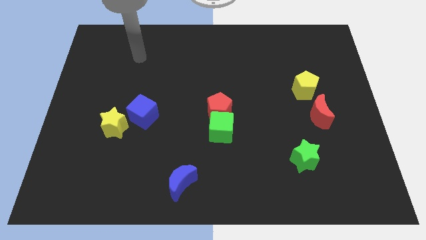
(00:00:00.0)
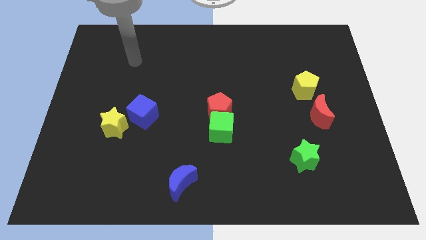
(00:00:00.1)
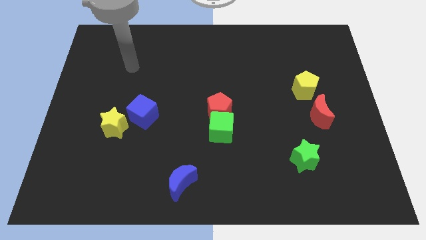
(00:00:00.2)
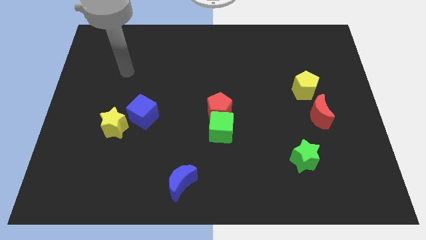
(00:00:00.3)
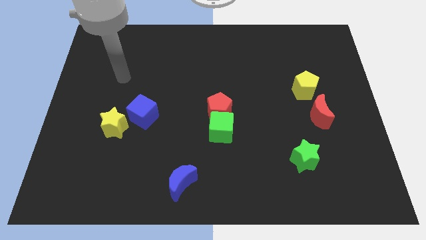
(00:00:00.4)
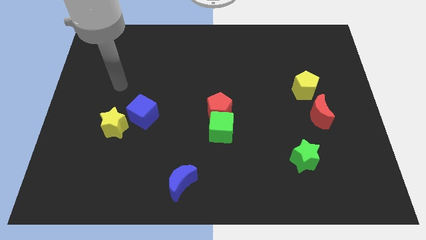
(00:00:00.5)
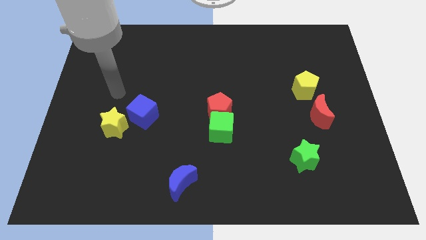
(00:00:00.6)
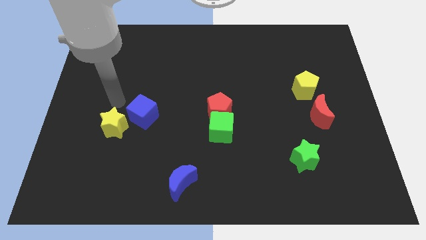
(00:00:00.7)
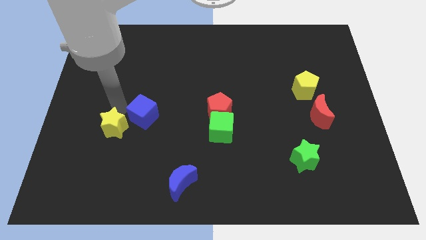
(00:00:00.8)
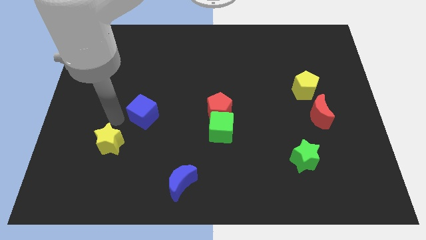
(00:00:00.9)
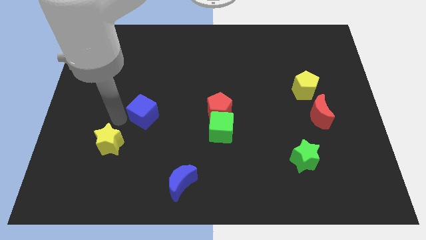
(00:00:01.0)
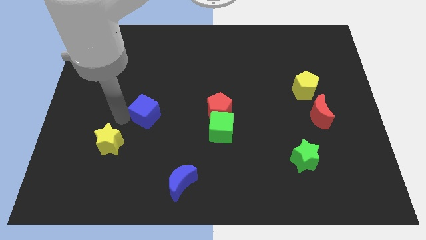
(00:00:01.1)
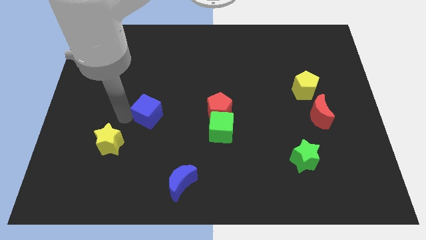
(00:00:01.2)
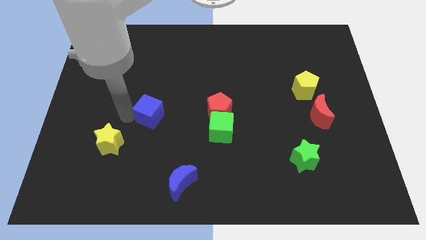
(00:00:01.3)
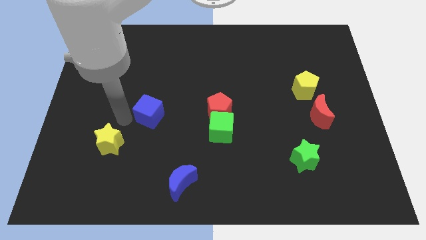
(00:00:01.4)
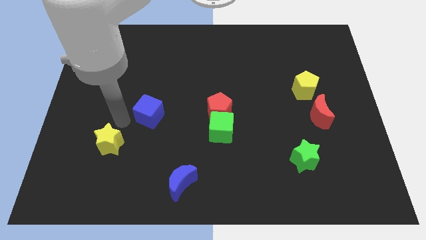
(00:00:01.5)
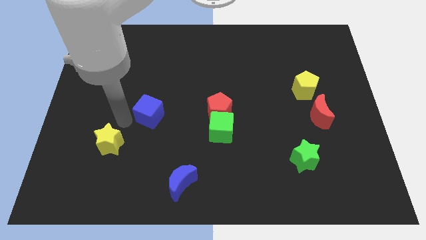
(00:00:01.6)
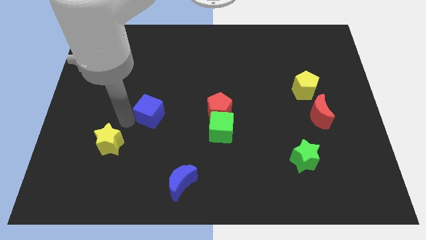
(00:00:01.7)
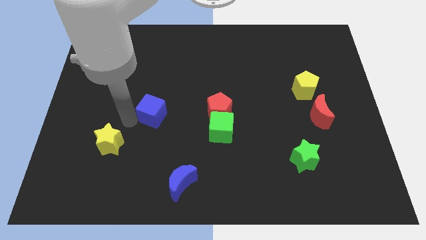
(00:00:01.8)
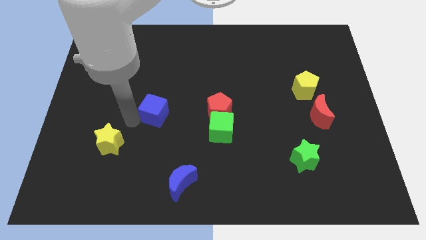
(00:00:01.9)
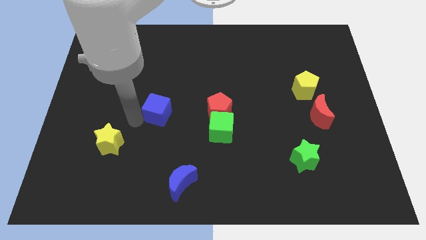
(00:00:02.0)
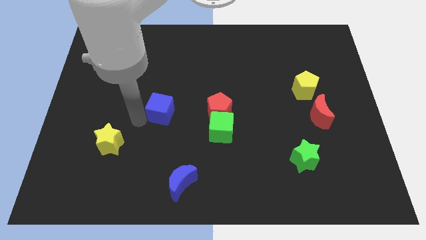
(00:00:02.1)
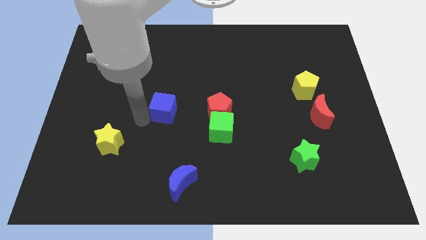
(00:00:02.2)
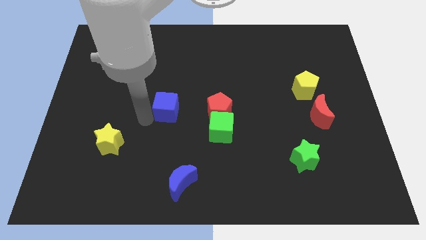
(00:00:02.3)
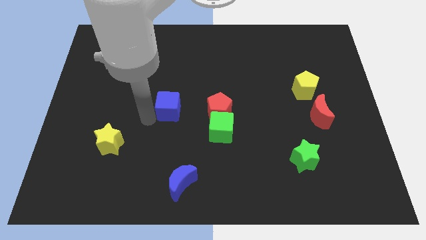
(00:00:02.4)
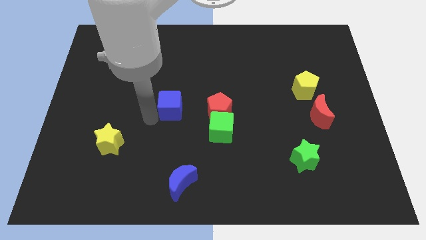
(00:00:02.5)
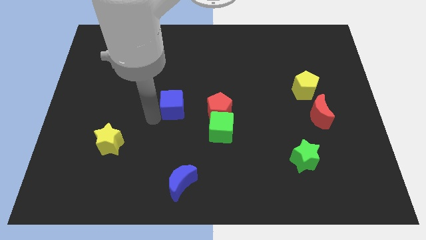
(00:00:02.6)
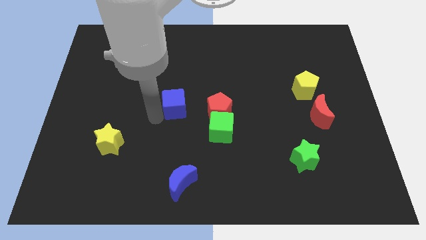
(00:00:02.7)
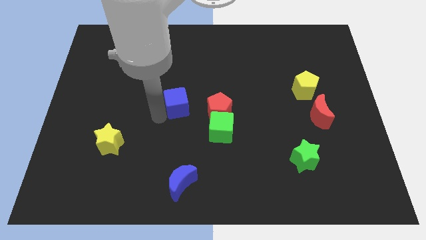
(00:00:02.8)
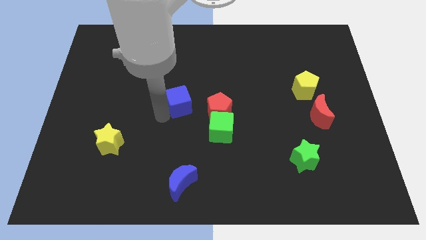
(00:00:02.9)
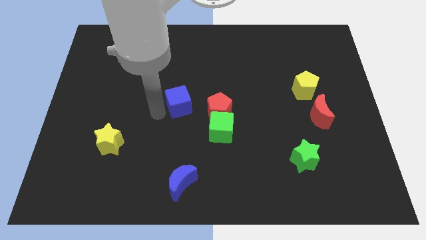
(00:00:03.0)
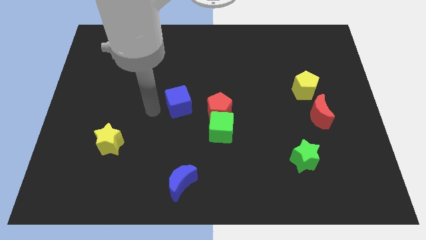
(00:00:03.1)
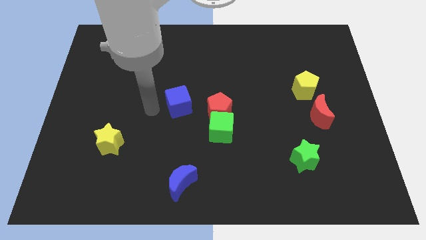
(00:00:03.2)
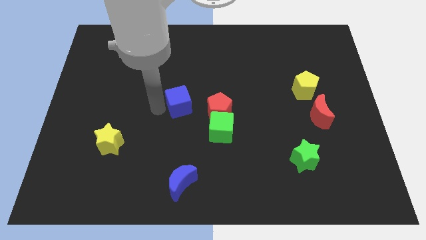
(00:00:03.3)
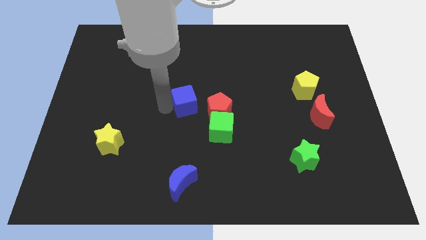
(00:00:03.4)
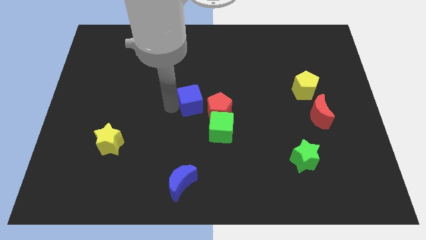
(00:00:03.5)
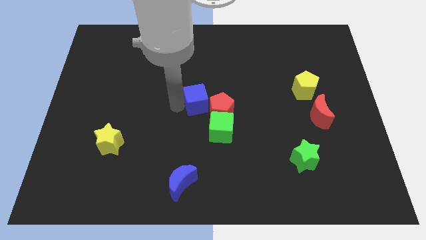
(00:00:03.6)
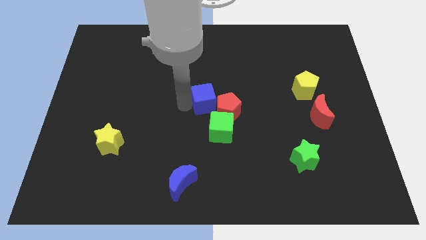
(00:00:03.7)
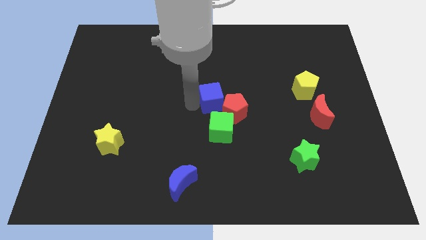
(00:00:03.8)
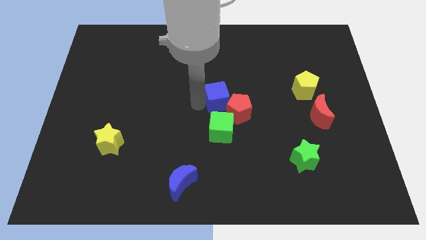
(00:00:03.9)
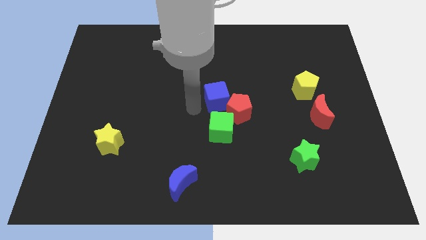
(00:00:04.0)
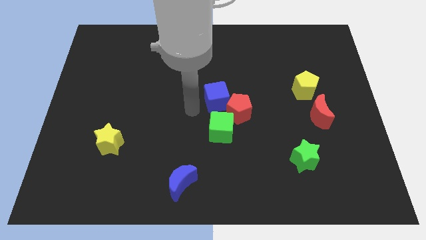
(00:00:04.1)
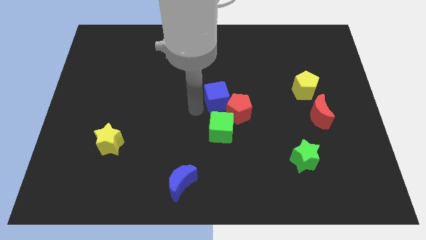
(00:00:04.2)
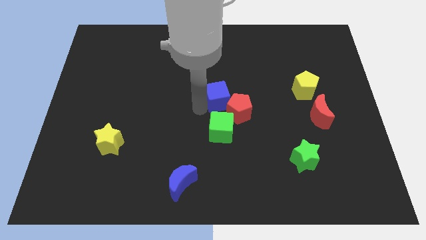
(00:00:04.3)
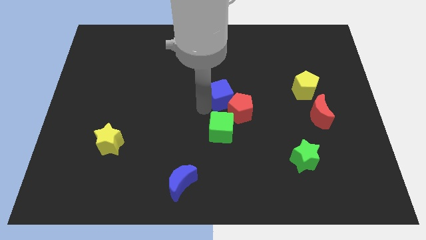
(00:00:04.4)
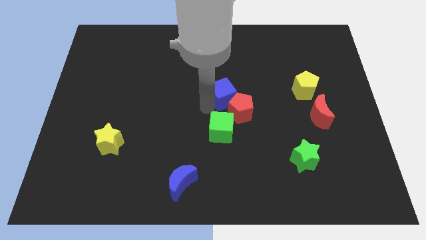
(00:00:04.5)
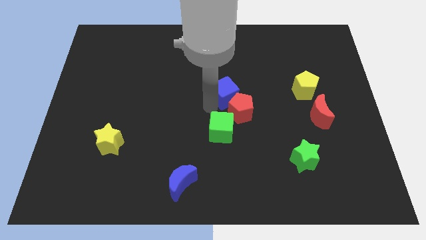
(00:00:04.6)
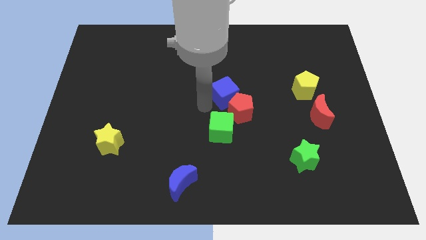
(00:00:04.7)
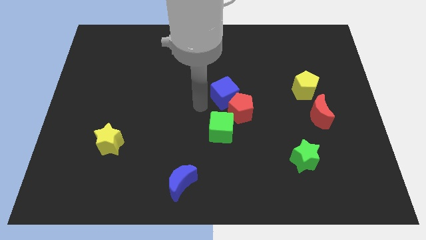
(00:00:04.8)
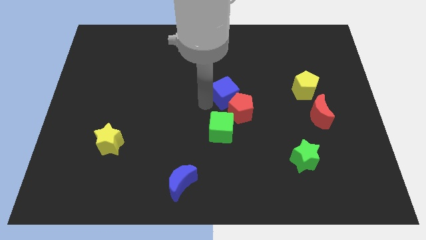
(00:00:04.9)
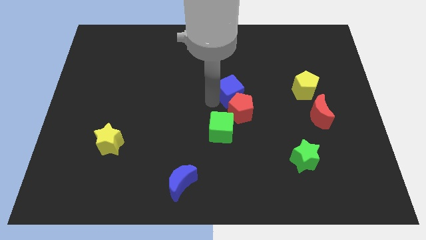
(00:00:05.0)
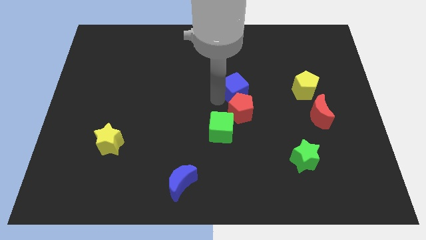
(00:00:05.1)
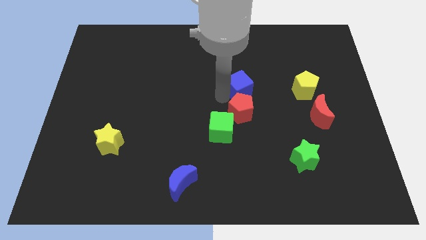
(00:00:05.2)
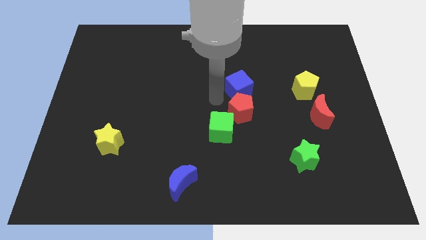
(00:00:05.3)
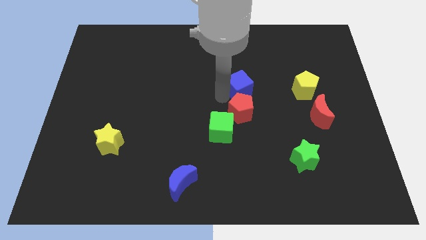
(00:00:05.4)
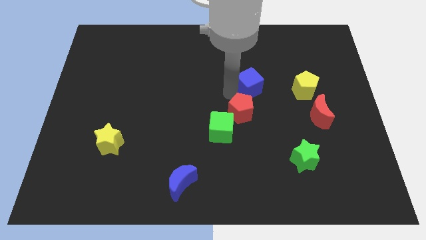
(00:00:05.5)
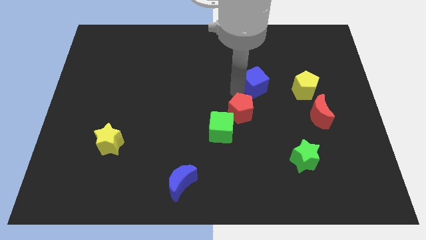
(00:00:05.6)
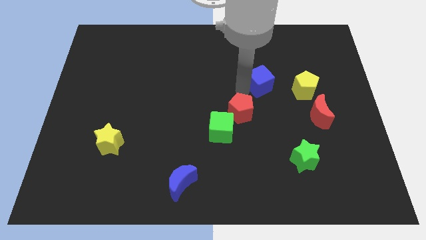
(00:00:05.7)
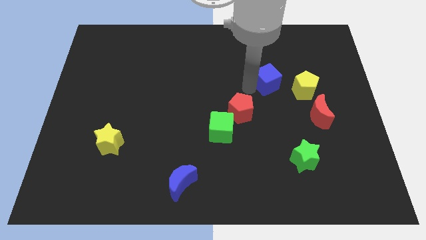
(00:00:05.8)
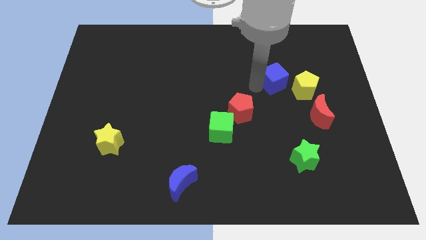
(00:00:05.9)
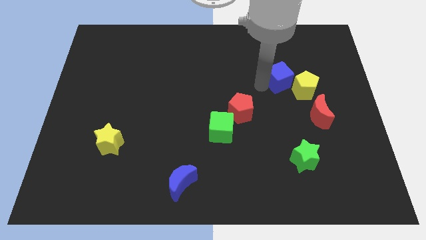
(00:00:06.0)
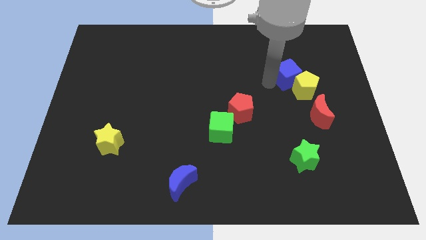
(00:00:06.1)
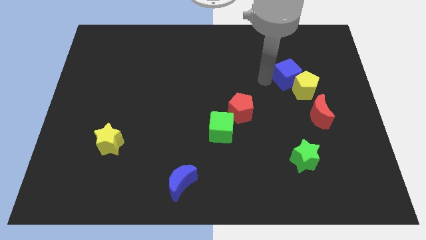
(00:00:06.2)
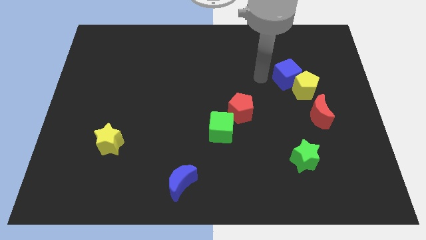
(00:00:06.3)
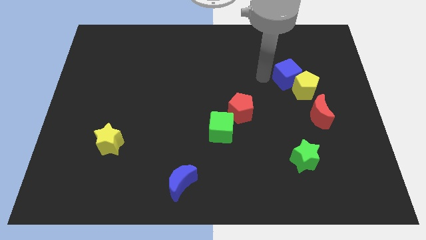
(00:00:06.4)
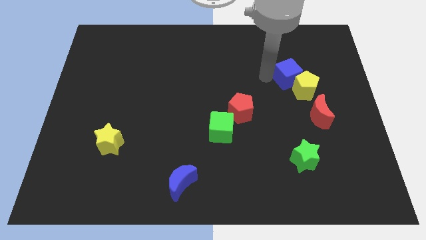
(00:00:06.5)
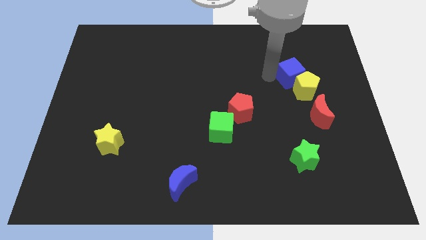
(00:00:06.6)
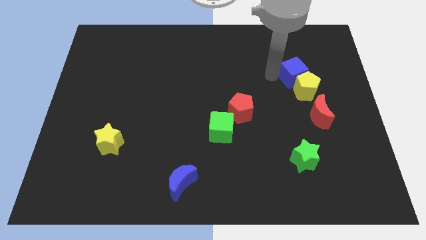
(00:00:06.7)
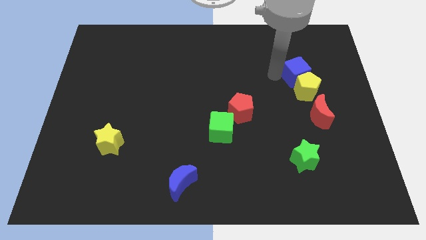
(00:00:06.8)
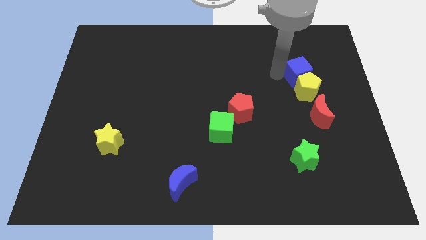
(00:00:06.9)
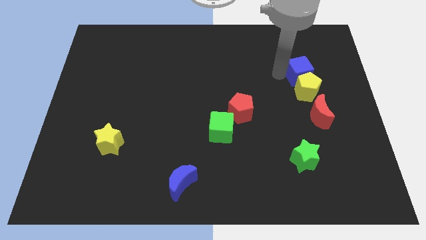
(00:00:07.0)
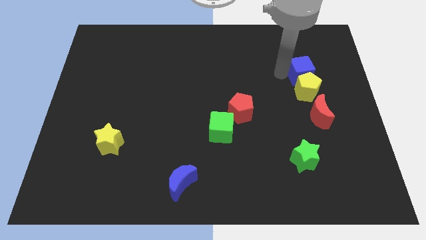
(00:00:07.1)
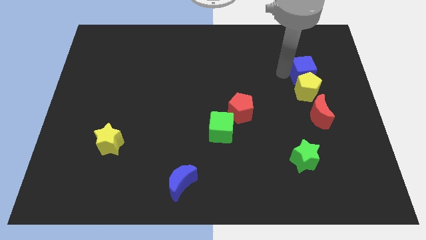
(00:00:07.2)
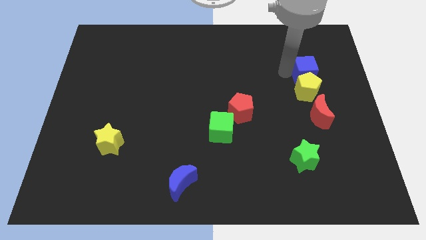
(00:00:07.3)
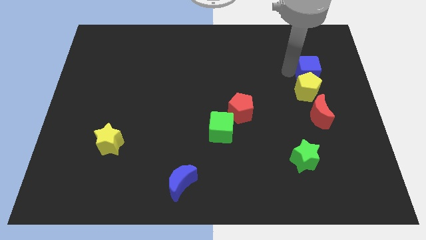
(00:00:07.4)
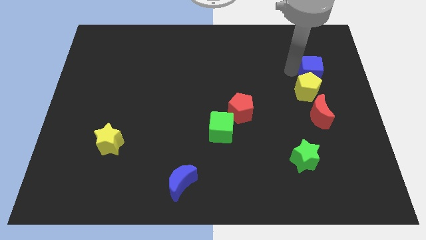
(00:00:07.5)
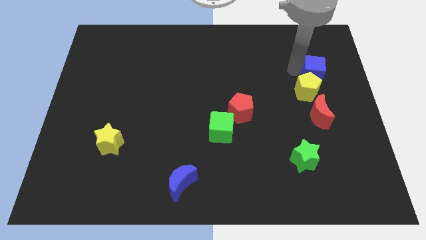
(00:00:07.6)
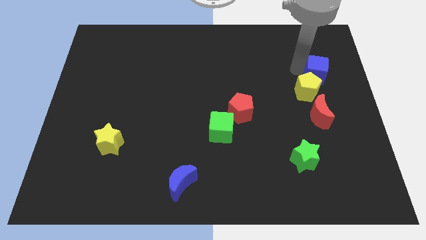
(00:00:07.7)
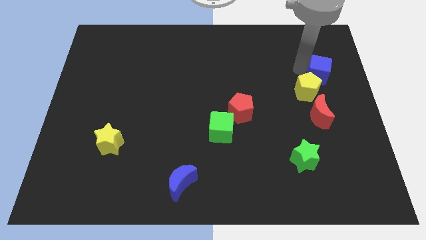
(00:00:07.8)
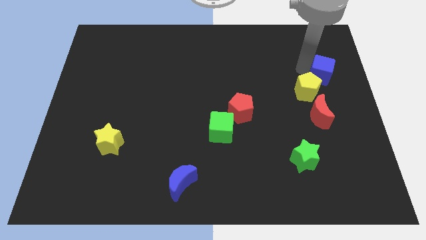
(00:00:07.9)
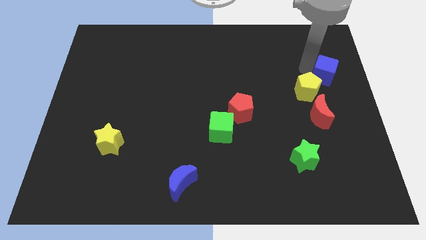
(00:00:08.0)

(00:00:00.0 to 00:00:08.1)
push the blue cube to the center right
